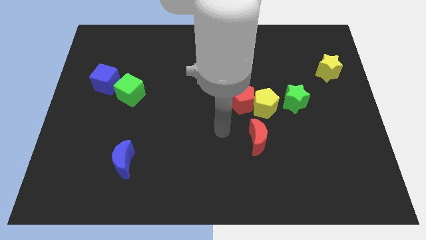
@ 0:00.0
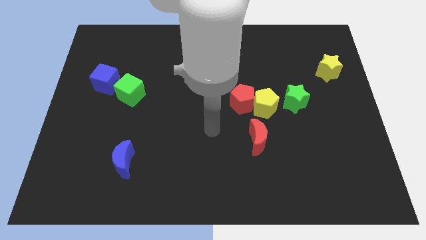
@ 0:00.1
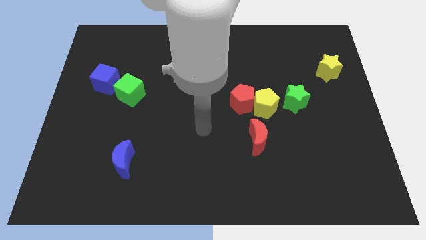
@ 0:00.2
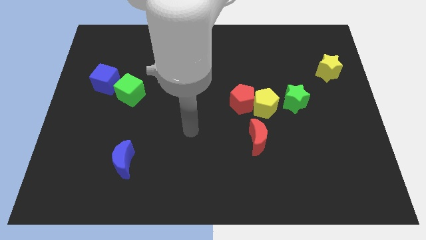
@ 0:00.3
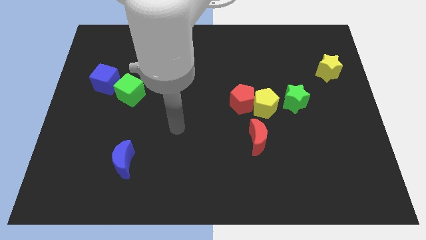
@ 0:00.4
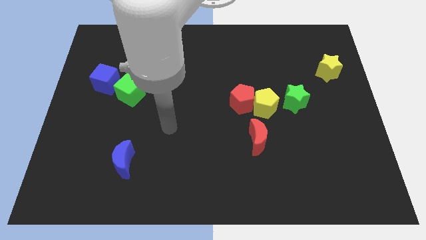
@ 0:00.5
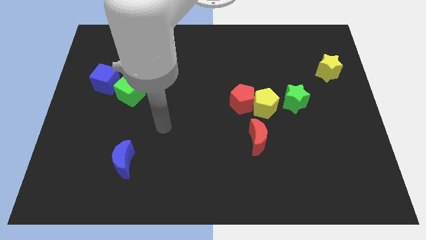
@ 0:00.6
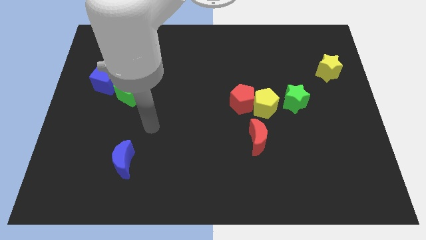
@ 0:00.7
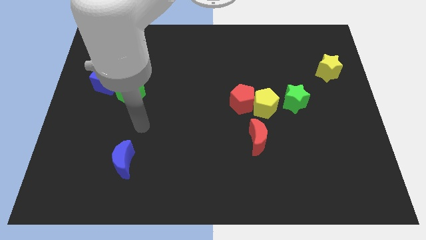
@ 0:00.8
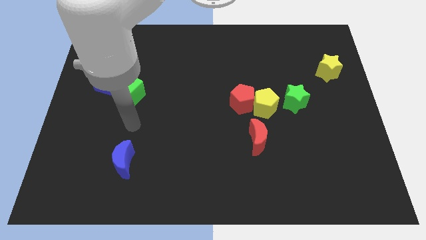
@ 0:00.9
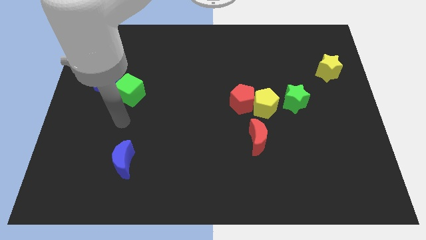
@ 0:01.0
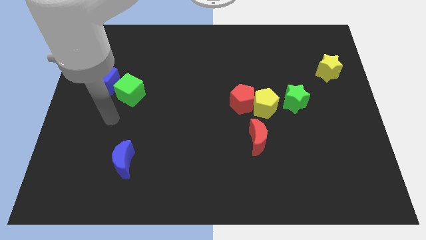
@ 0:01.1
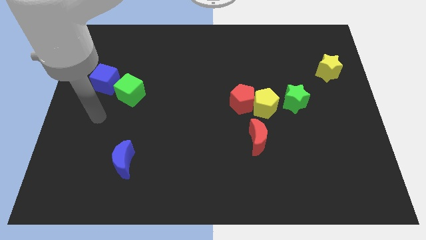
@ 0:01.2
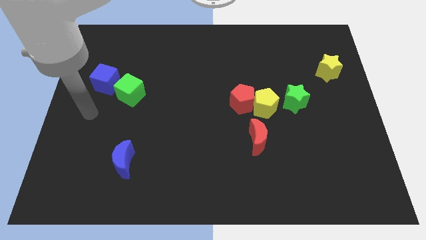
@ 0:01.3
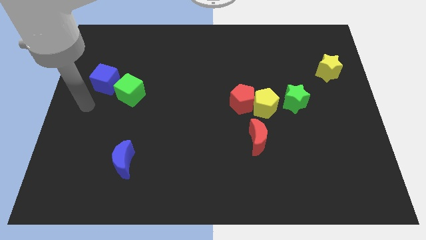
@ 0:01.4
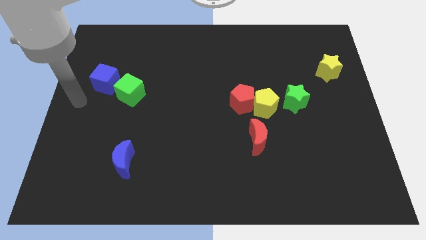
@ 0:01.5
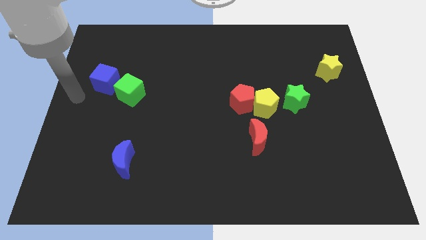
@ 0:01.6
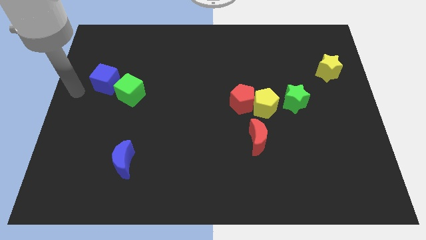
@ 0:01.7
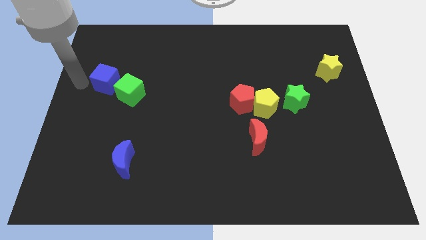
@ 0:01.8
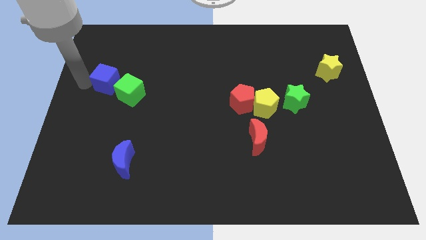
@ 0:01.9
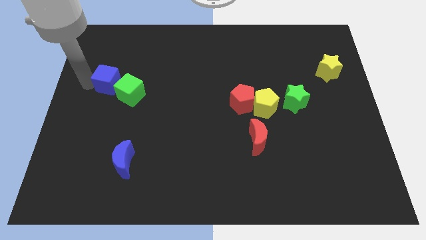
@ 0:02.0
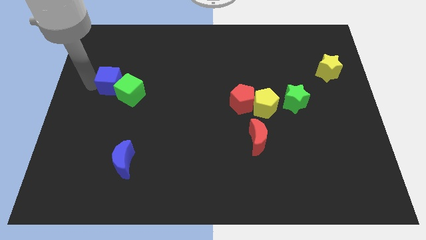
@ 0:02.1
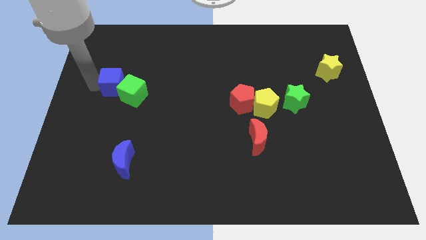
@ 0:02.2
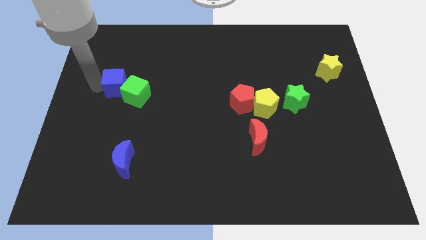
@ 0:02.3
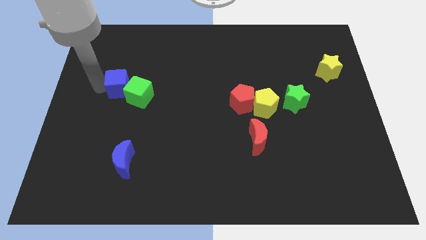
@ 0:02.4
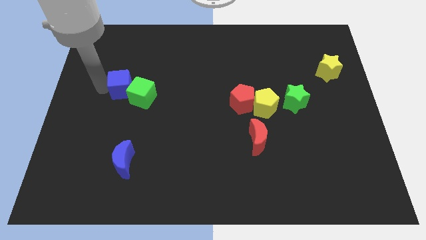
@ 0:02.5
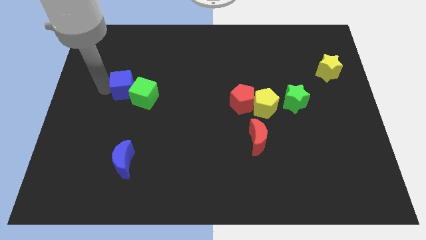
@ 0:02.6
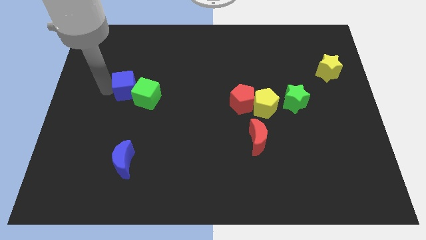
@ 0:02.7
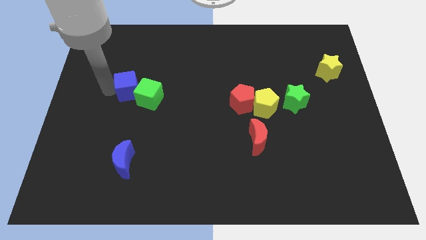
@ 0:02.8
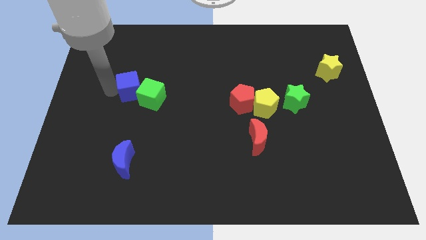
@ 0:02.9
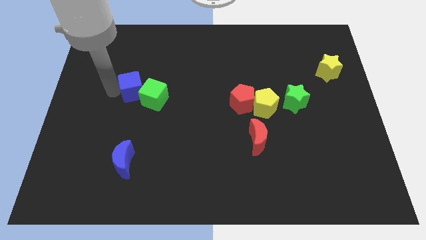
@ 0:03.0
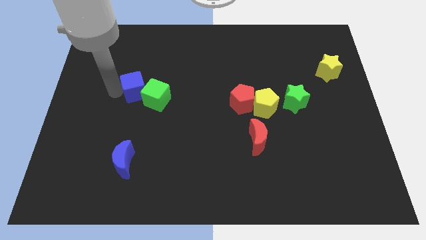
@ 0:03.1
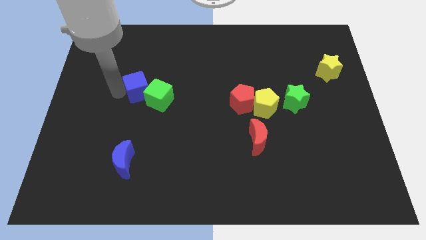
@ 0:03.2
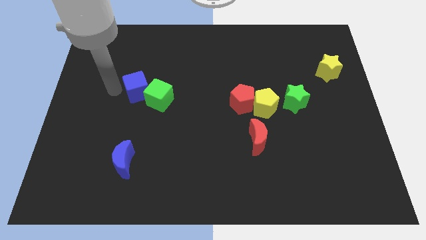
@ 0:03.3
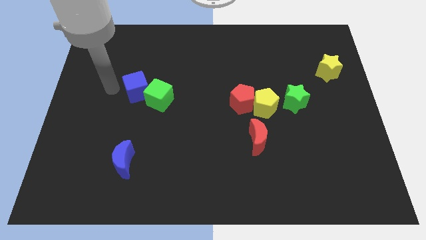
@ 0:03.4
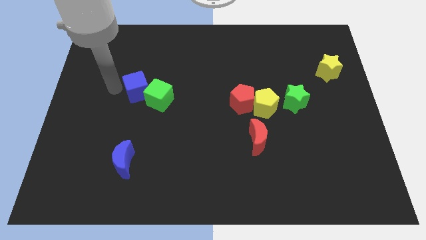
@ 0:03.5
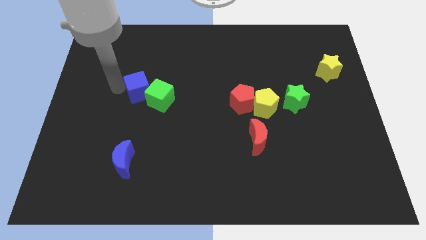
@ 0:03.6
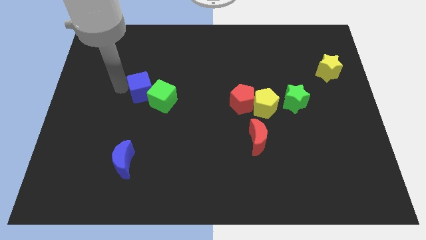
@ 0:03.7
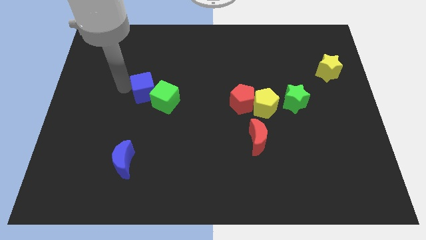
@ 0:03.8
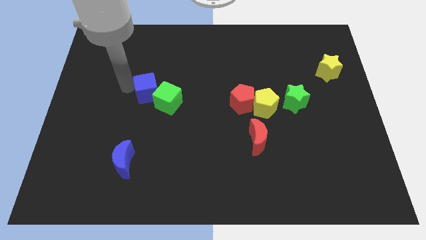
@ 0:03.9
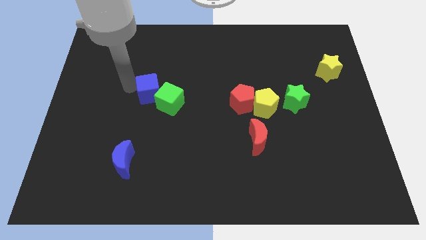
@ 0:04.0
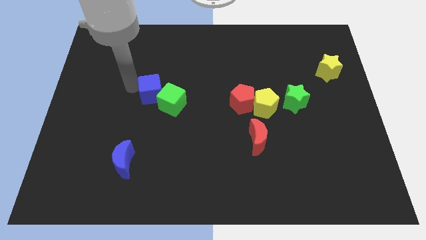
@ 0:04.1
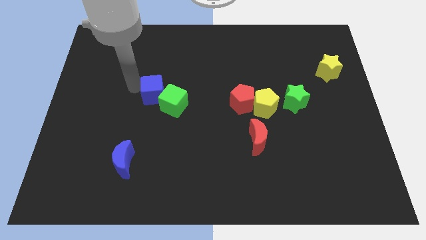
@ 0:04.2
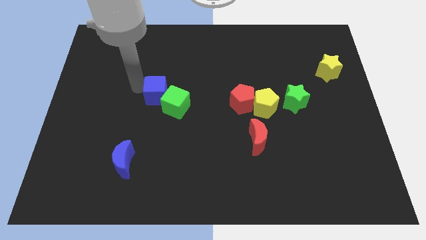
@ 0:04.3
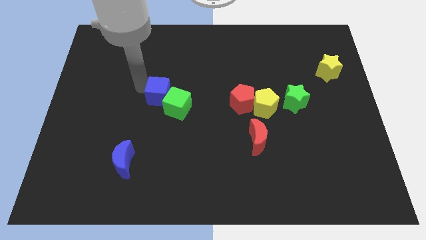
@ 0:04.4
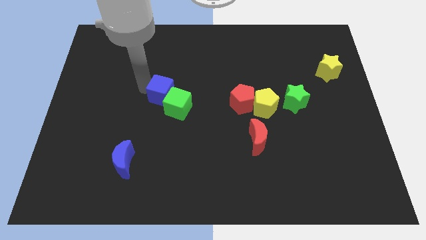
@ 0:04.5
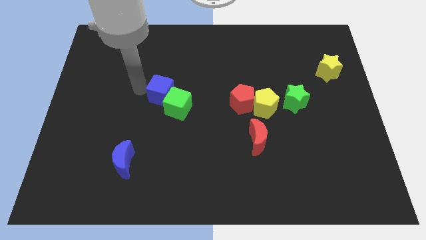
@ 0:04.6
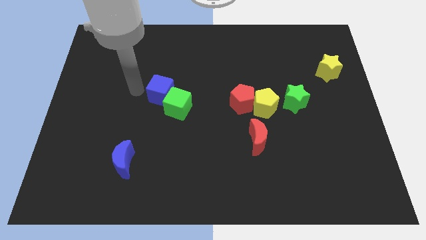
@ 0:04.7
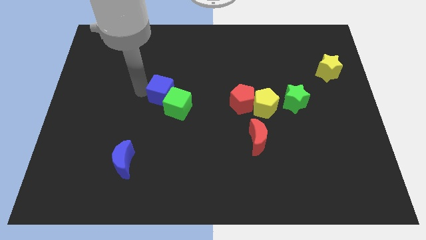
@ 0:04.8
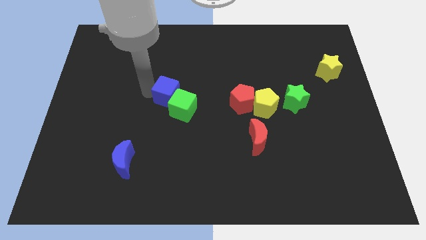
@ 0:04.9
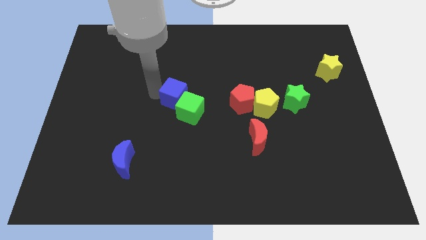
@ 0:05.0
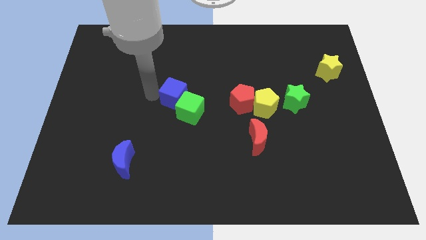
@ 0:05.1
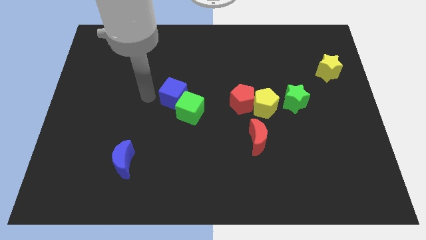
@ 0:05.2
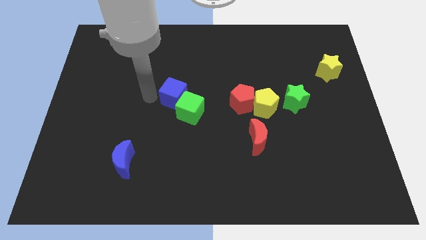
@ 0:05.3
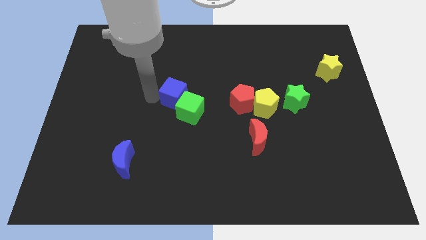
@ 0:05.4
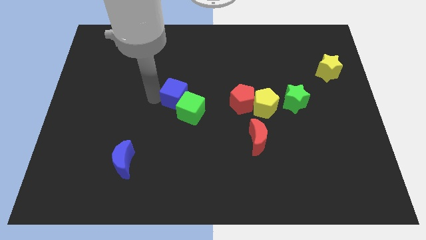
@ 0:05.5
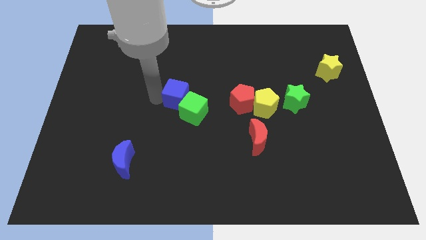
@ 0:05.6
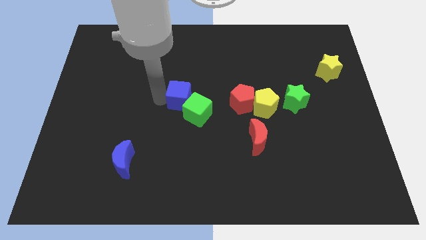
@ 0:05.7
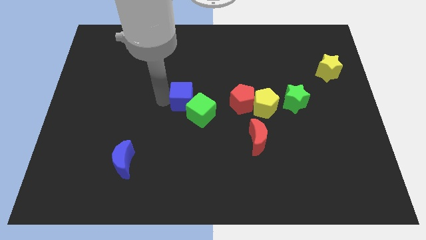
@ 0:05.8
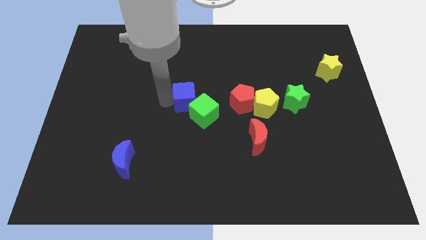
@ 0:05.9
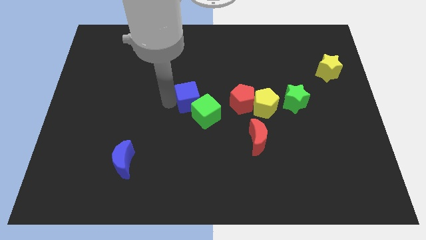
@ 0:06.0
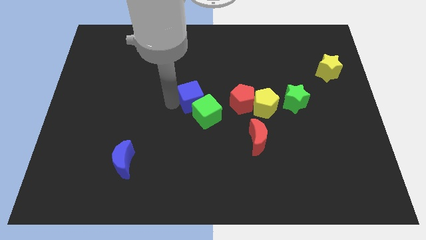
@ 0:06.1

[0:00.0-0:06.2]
push the blue cube right

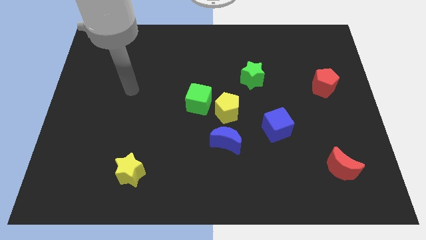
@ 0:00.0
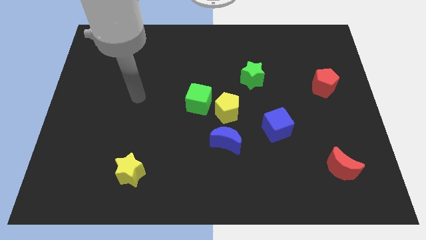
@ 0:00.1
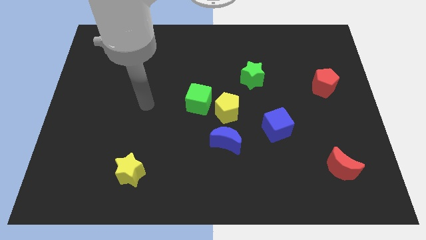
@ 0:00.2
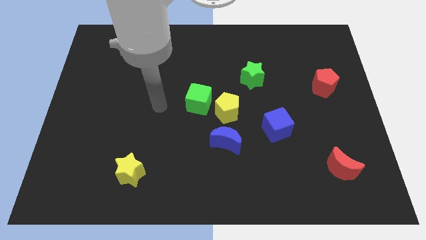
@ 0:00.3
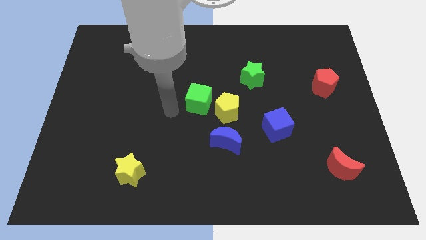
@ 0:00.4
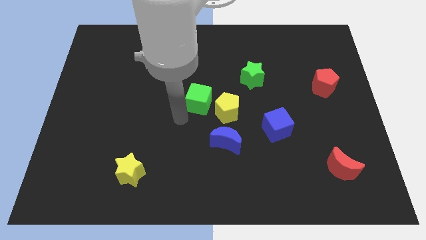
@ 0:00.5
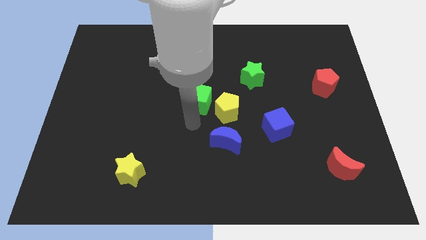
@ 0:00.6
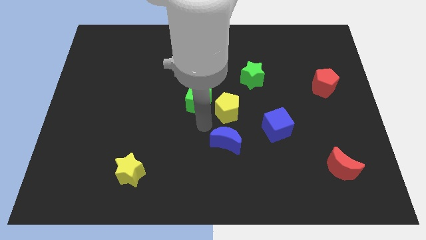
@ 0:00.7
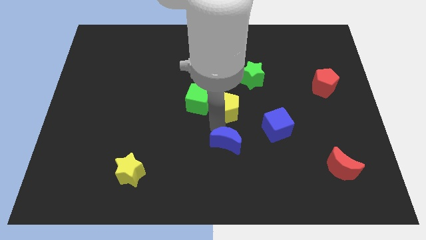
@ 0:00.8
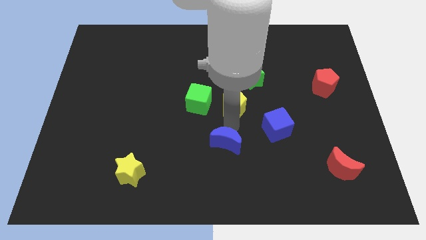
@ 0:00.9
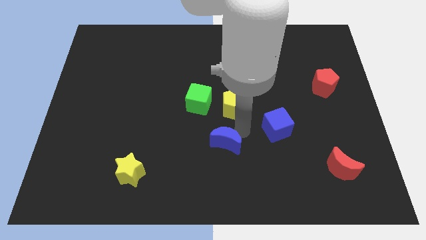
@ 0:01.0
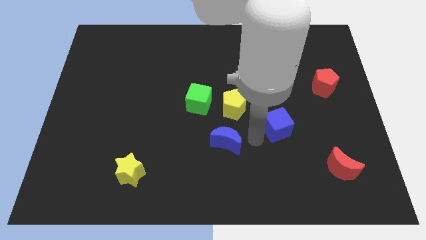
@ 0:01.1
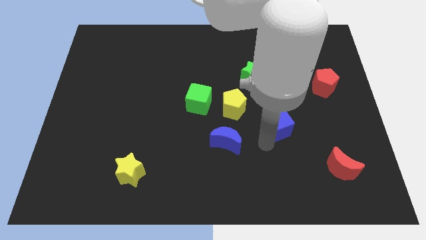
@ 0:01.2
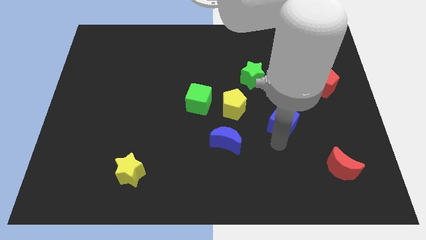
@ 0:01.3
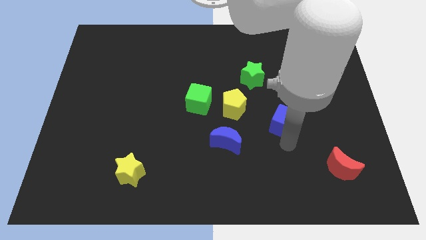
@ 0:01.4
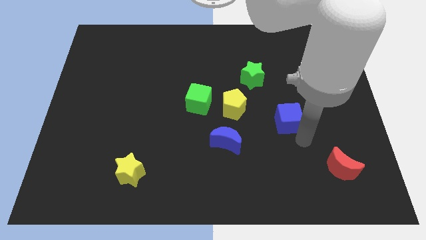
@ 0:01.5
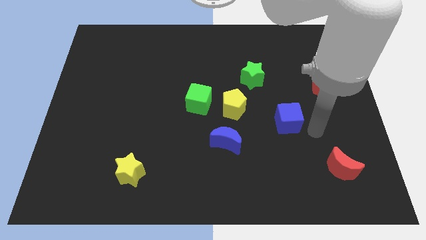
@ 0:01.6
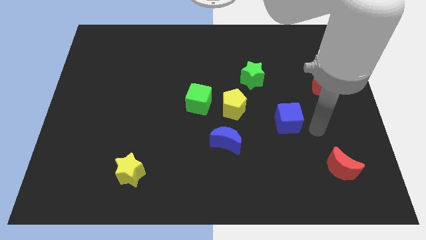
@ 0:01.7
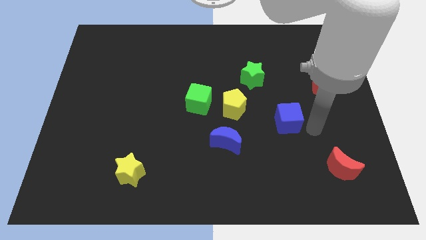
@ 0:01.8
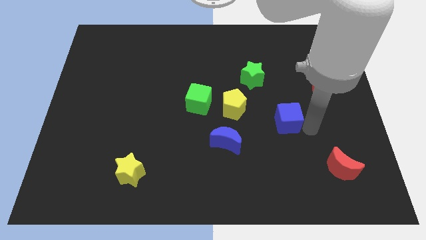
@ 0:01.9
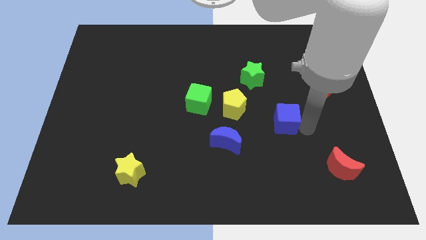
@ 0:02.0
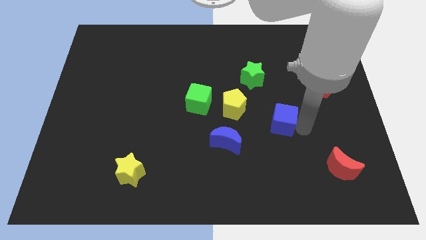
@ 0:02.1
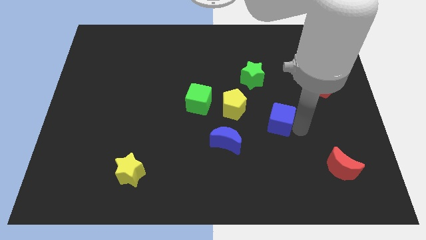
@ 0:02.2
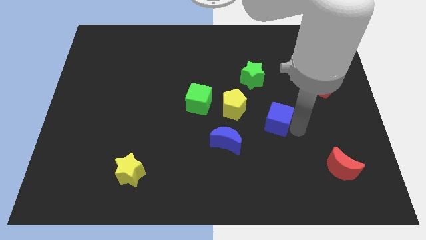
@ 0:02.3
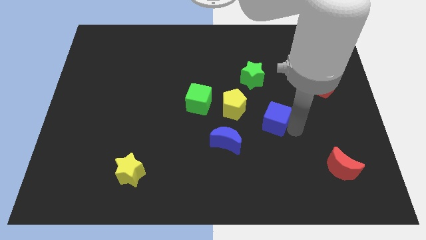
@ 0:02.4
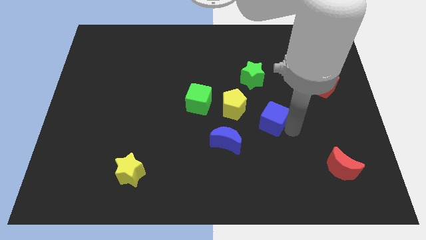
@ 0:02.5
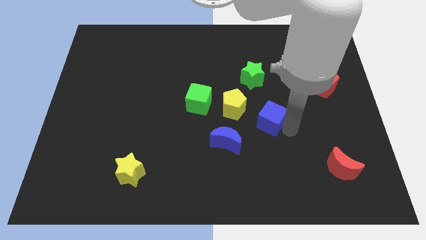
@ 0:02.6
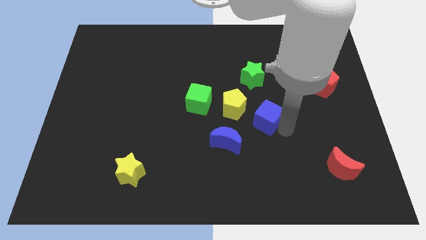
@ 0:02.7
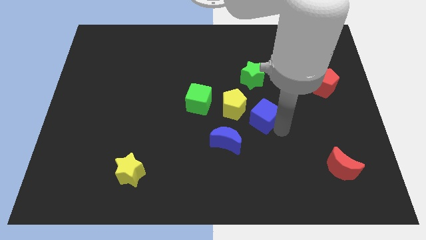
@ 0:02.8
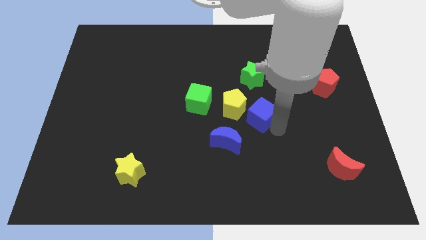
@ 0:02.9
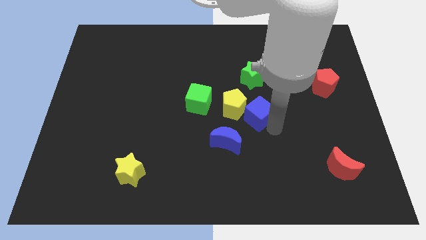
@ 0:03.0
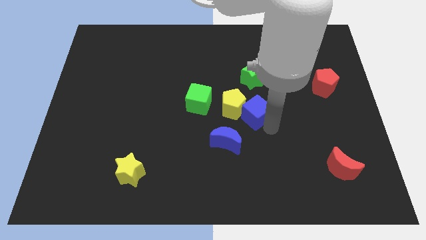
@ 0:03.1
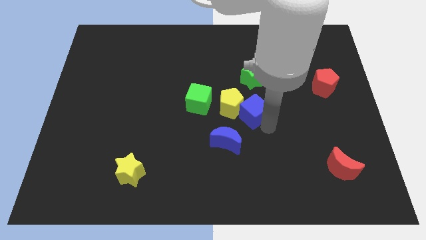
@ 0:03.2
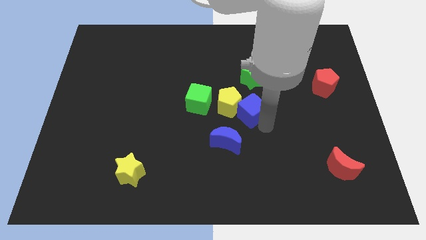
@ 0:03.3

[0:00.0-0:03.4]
move the blue cube upwards and left diagonally a little bit
